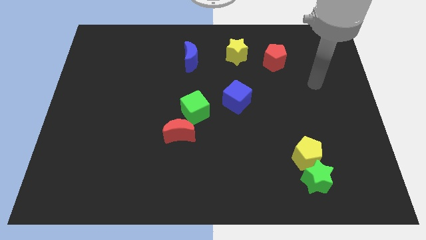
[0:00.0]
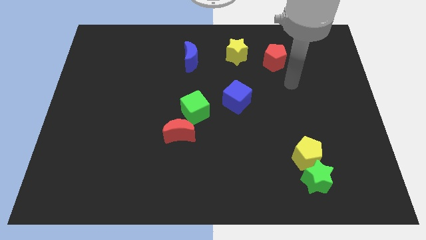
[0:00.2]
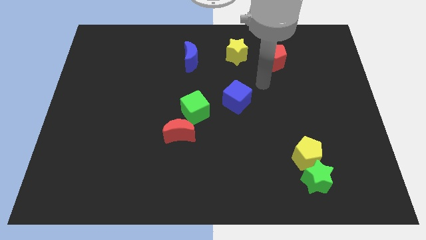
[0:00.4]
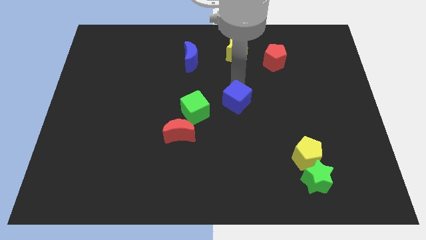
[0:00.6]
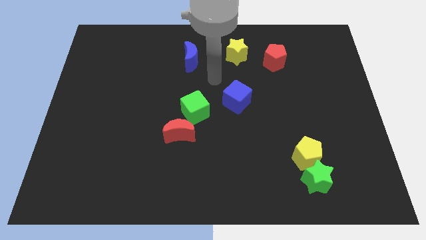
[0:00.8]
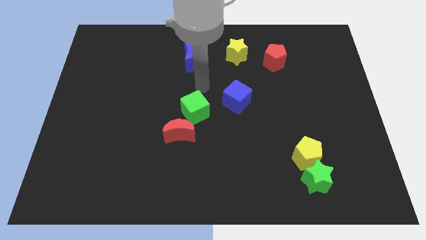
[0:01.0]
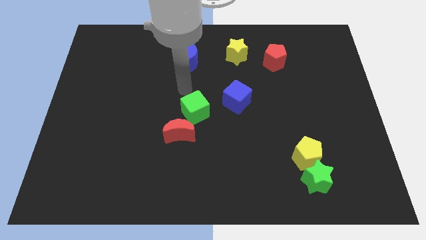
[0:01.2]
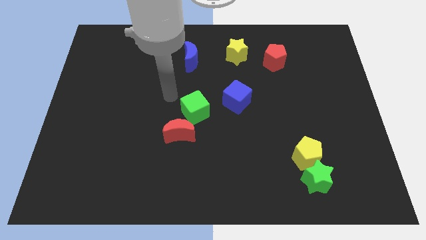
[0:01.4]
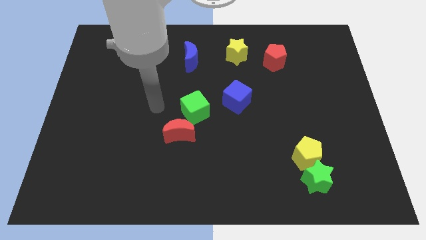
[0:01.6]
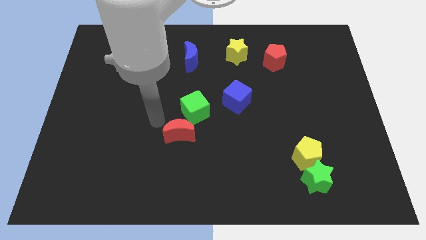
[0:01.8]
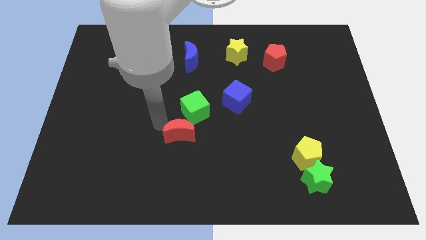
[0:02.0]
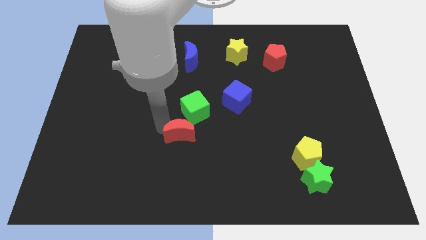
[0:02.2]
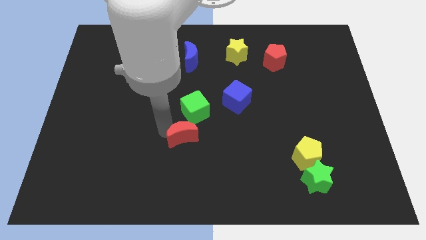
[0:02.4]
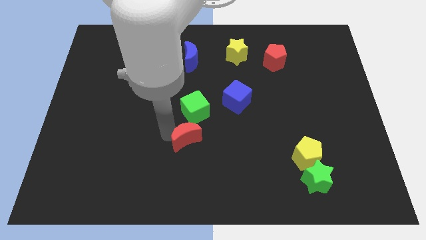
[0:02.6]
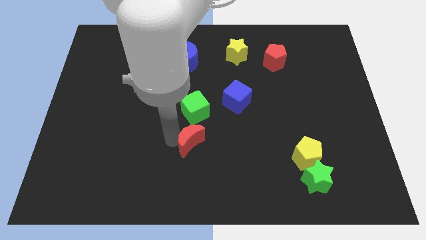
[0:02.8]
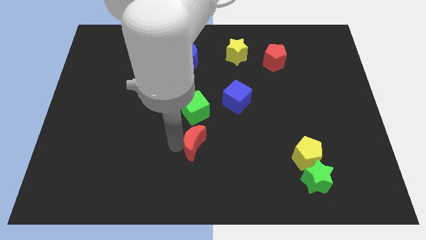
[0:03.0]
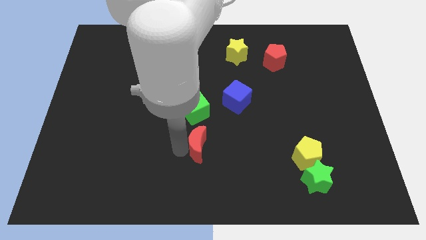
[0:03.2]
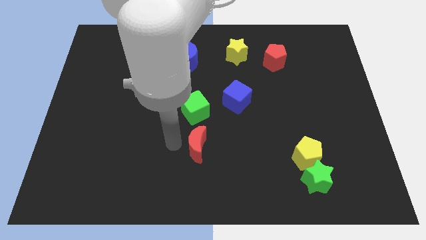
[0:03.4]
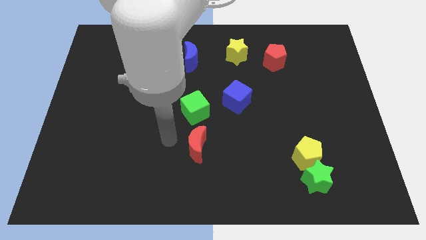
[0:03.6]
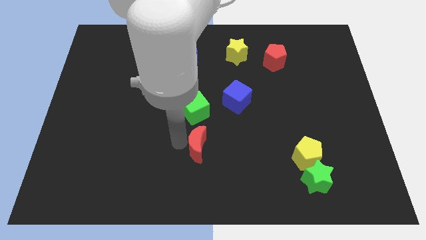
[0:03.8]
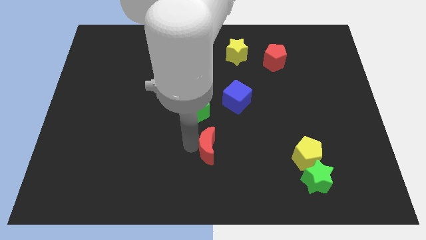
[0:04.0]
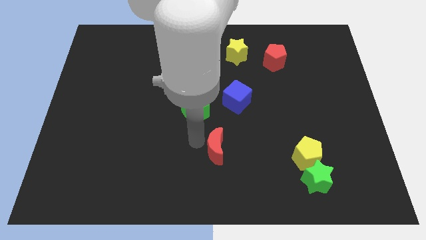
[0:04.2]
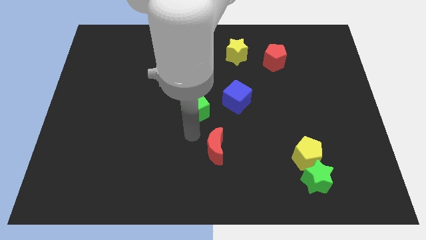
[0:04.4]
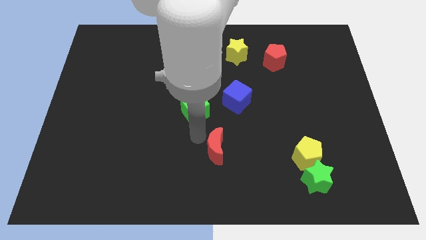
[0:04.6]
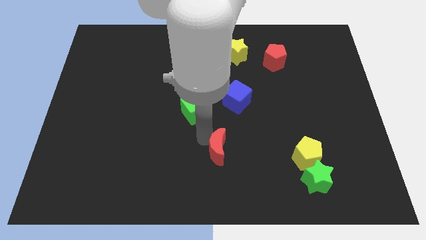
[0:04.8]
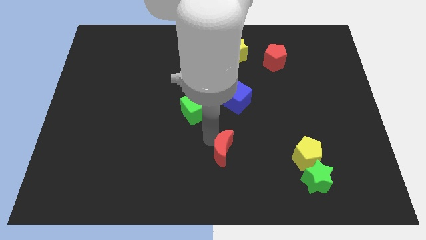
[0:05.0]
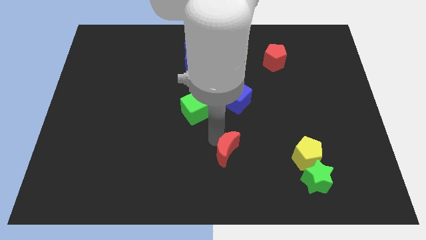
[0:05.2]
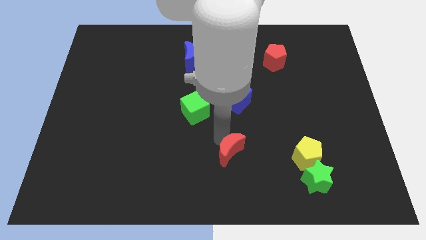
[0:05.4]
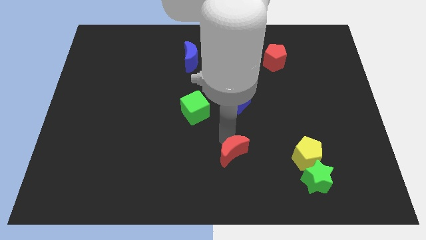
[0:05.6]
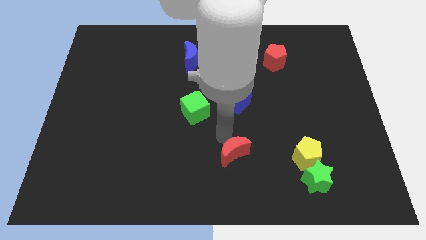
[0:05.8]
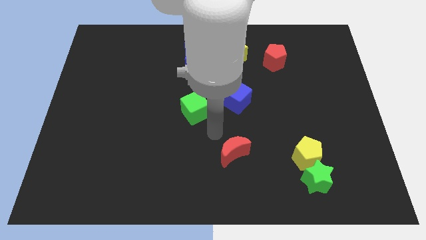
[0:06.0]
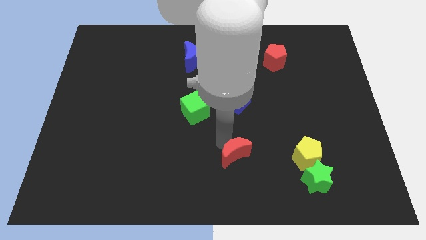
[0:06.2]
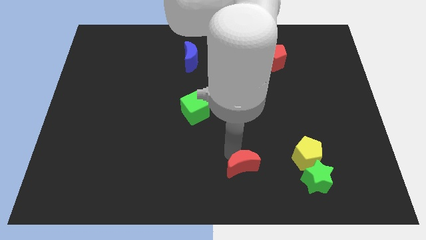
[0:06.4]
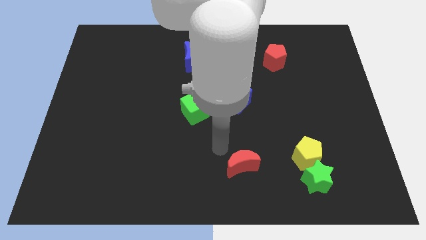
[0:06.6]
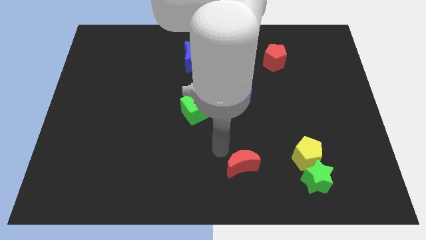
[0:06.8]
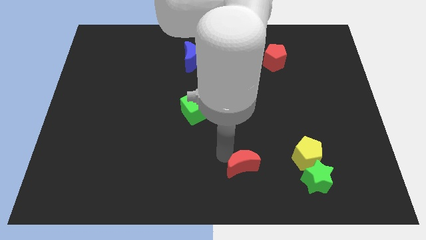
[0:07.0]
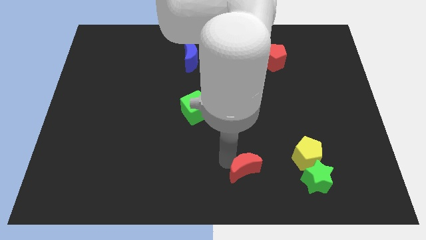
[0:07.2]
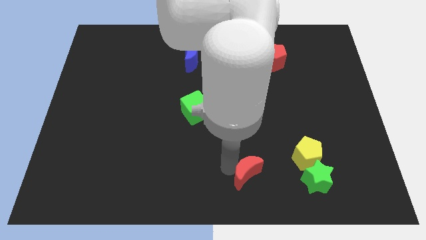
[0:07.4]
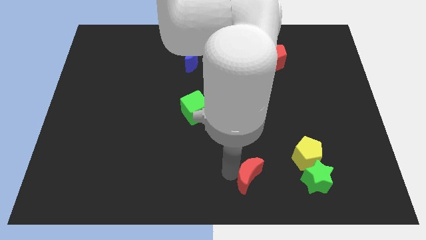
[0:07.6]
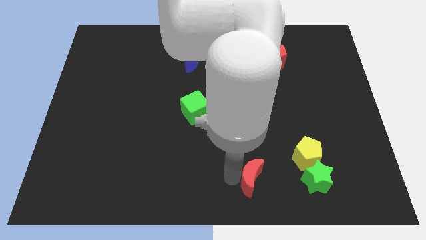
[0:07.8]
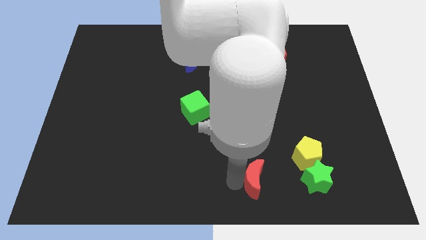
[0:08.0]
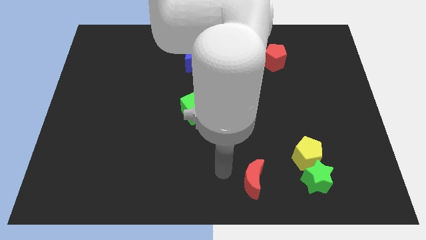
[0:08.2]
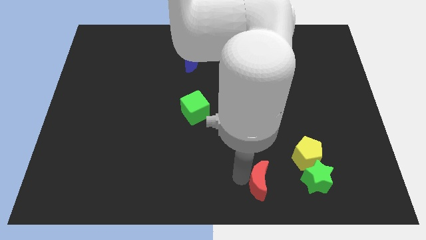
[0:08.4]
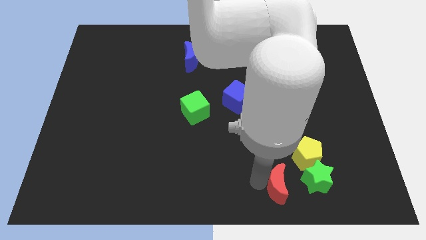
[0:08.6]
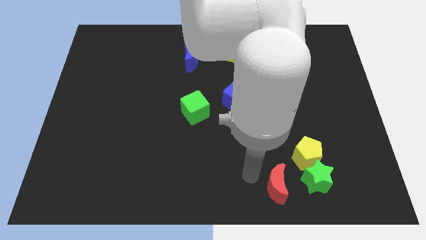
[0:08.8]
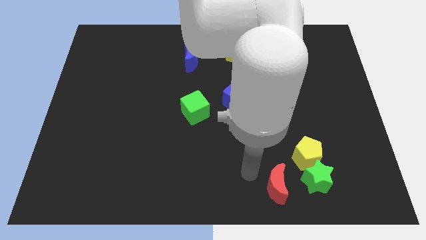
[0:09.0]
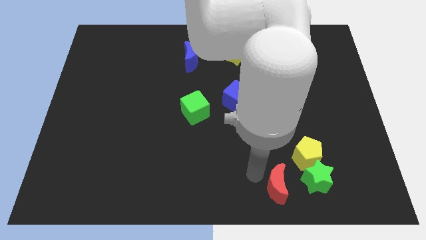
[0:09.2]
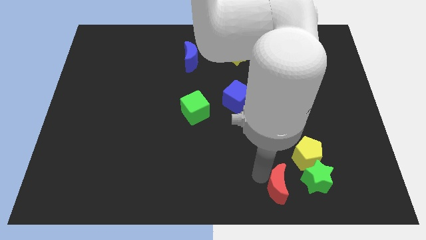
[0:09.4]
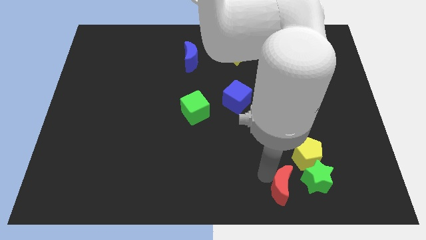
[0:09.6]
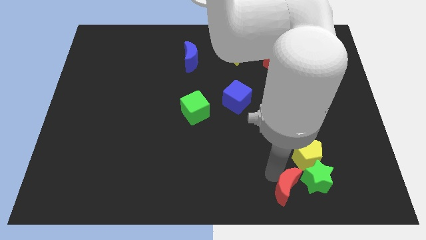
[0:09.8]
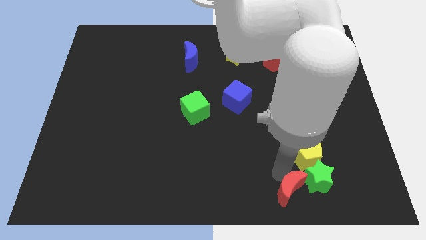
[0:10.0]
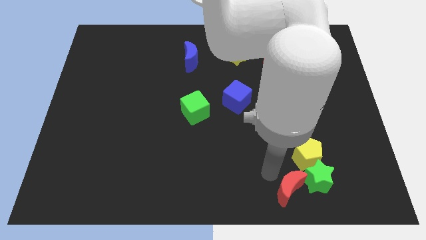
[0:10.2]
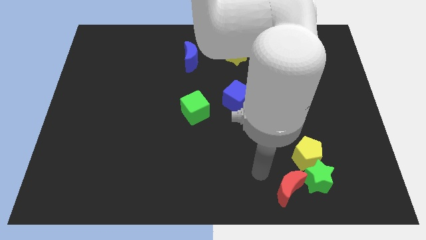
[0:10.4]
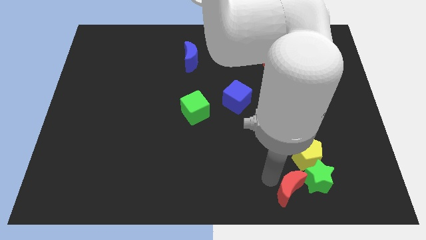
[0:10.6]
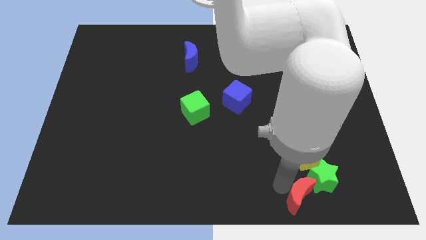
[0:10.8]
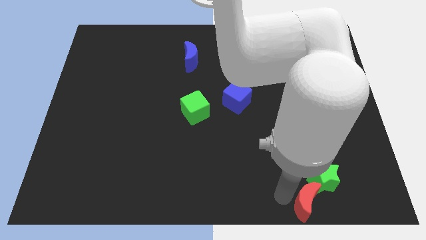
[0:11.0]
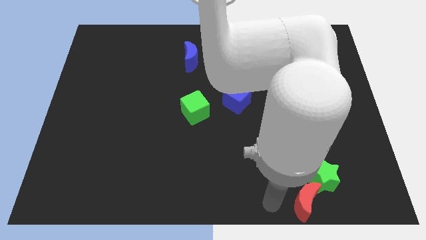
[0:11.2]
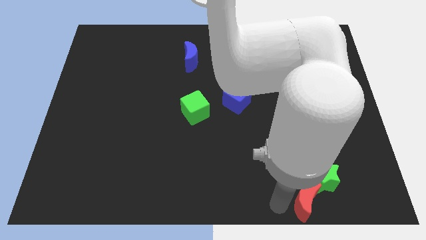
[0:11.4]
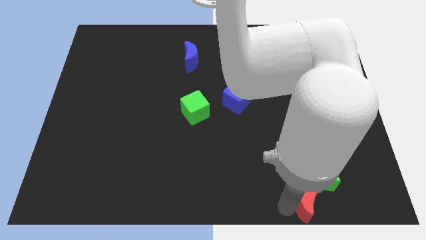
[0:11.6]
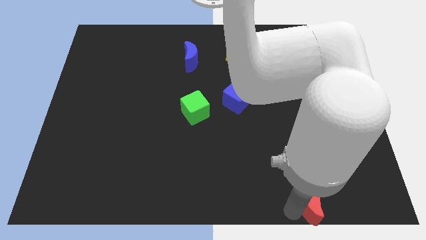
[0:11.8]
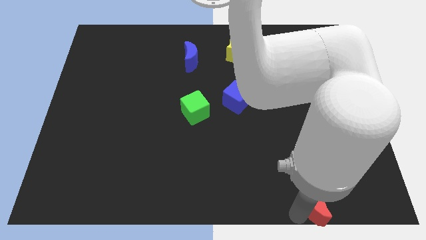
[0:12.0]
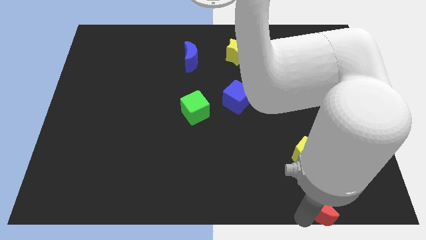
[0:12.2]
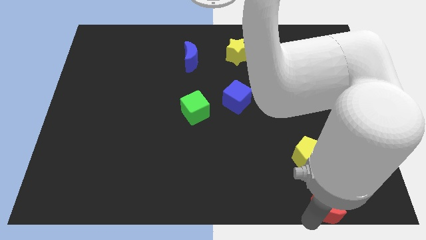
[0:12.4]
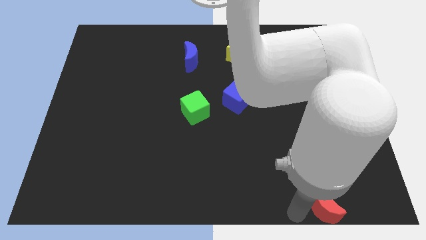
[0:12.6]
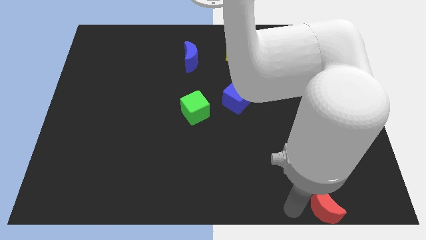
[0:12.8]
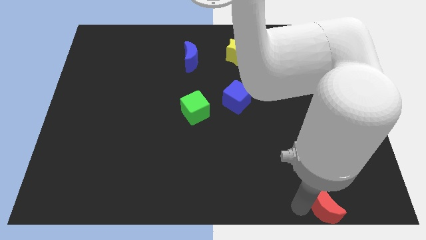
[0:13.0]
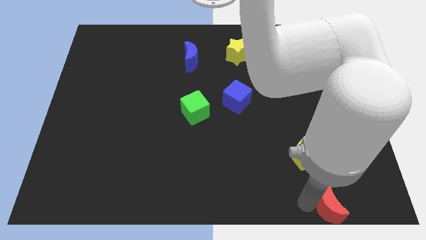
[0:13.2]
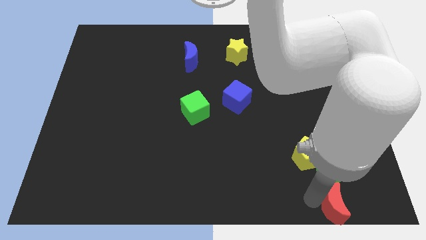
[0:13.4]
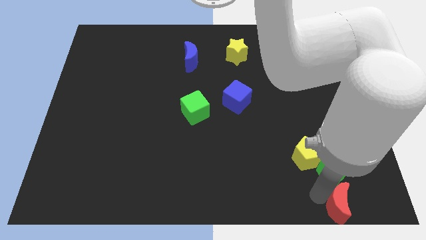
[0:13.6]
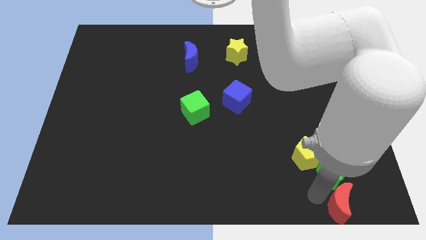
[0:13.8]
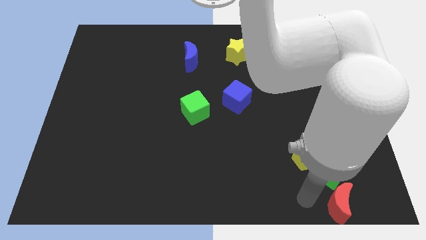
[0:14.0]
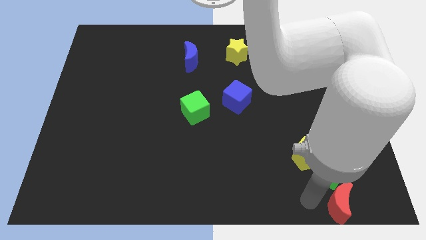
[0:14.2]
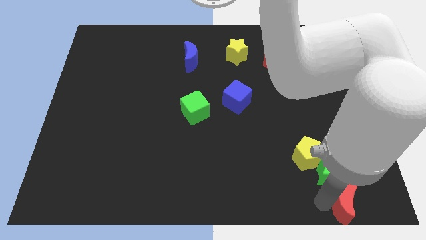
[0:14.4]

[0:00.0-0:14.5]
move the red moon to the bottom right
